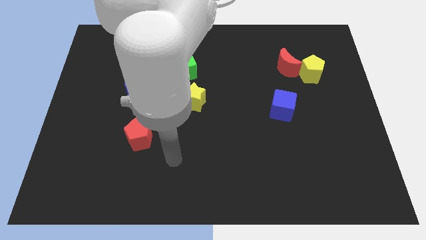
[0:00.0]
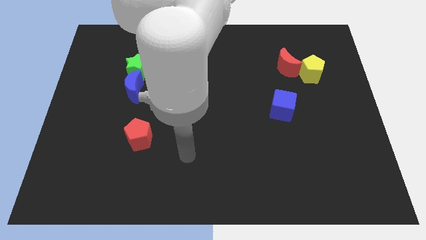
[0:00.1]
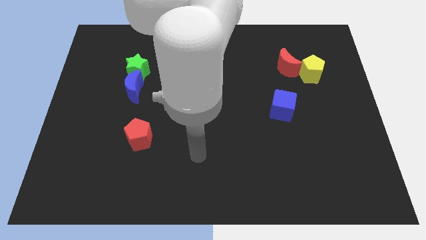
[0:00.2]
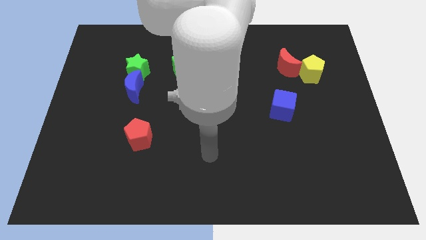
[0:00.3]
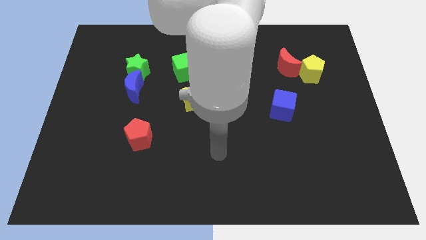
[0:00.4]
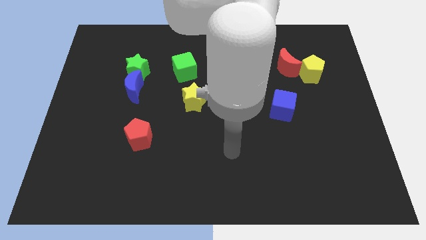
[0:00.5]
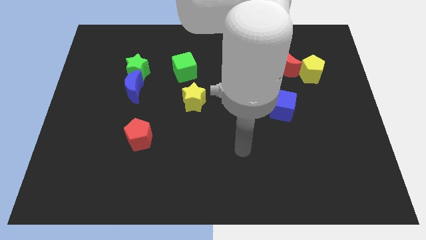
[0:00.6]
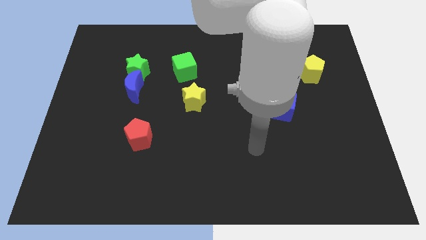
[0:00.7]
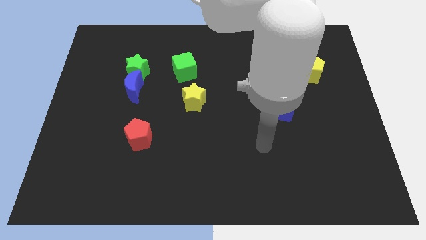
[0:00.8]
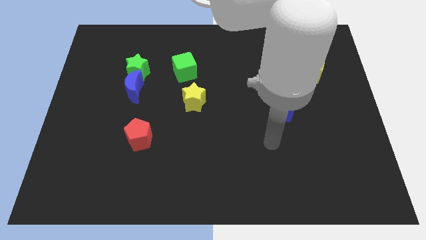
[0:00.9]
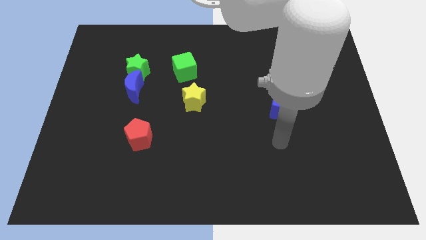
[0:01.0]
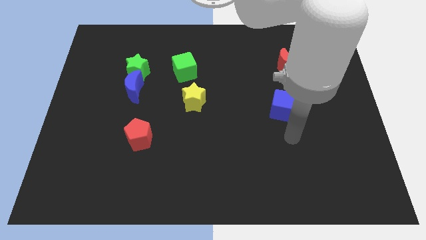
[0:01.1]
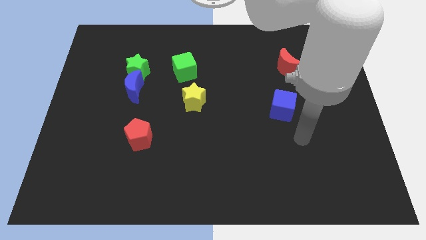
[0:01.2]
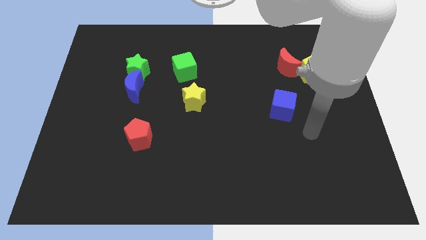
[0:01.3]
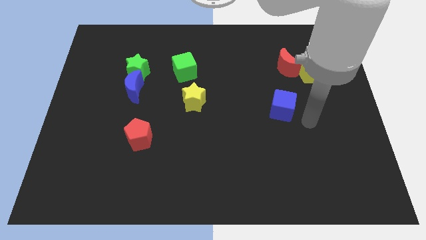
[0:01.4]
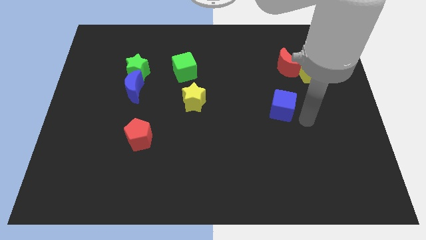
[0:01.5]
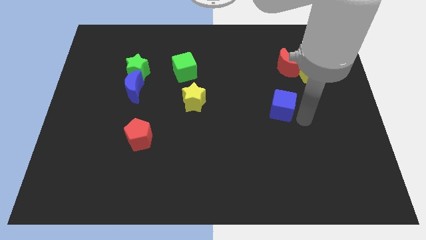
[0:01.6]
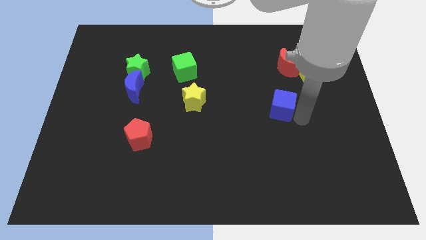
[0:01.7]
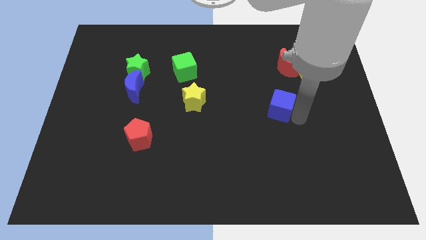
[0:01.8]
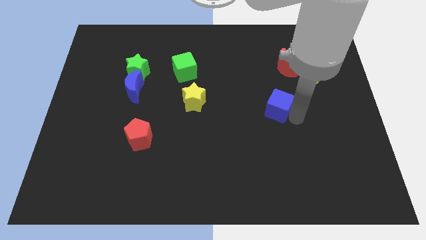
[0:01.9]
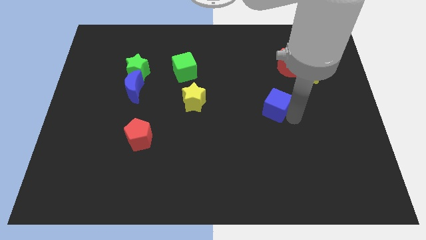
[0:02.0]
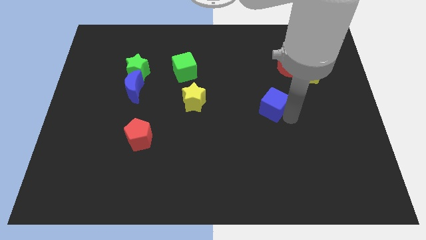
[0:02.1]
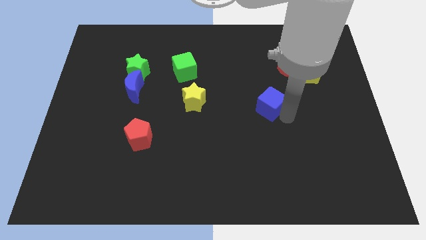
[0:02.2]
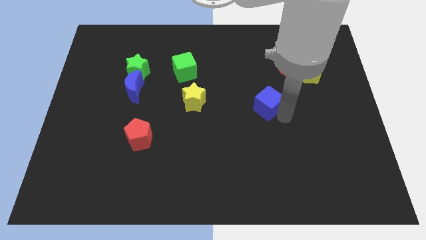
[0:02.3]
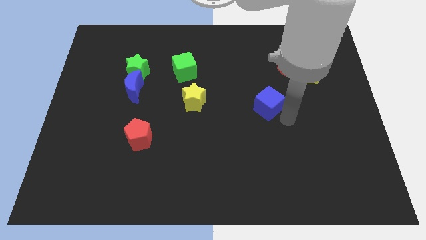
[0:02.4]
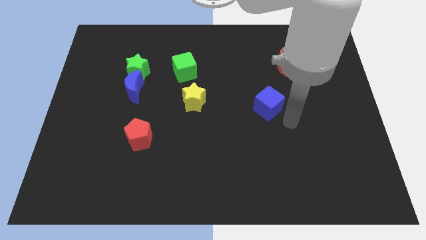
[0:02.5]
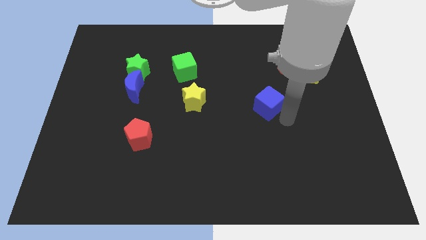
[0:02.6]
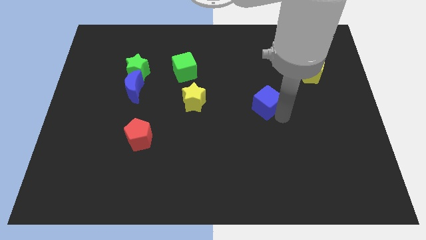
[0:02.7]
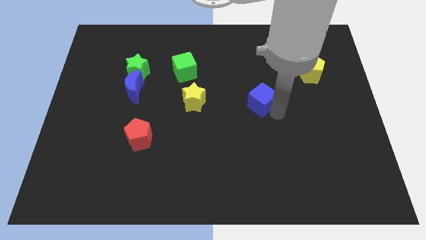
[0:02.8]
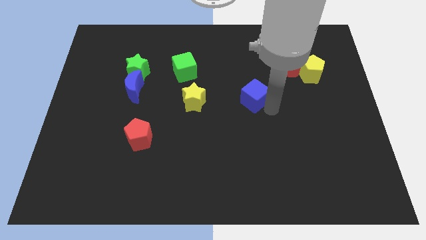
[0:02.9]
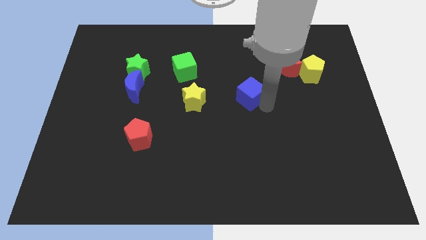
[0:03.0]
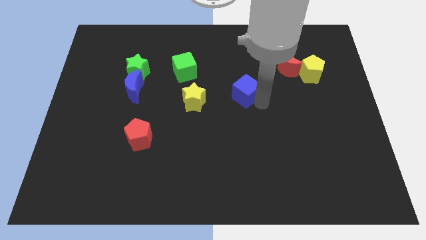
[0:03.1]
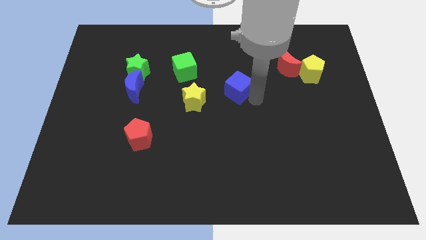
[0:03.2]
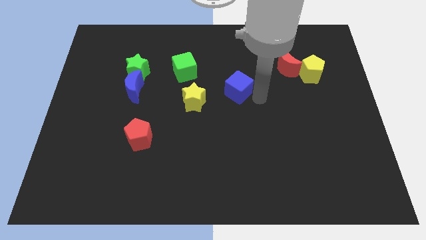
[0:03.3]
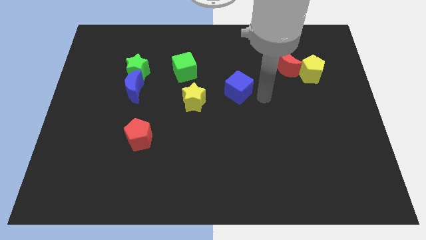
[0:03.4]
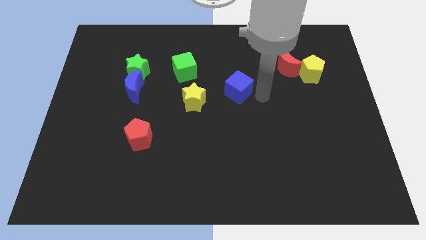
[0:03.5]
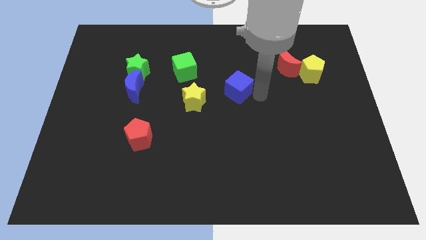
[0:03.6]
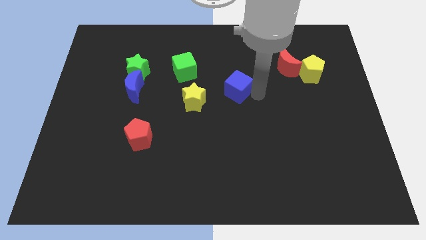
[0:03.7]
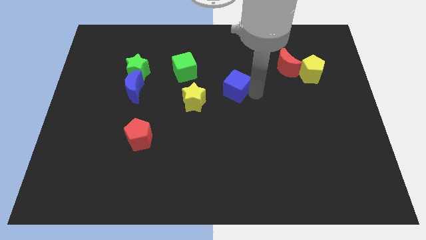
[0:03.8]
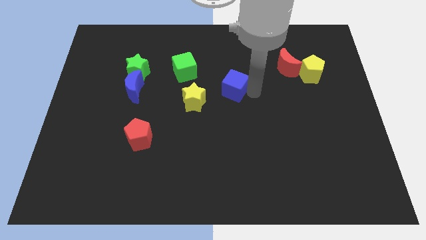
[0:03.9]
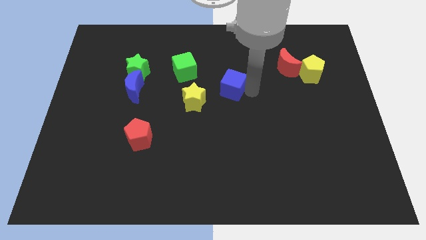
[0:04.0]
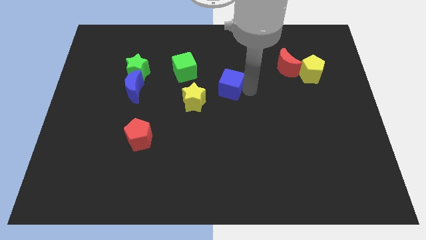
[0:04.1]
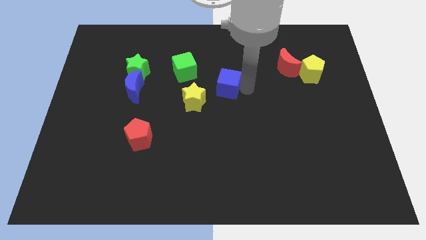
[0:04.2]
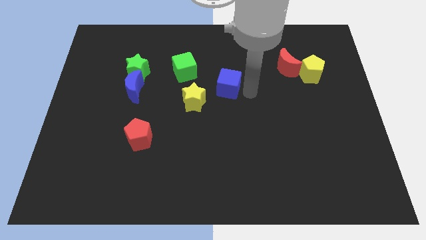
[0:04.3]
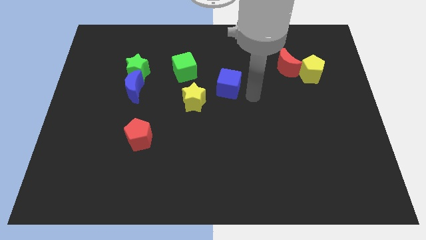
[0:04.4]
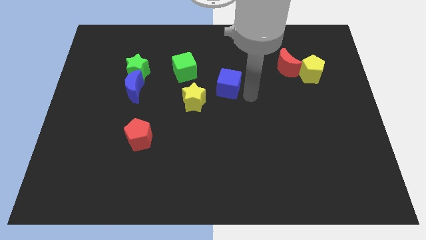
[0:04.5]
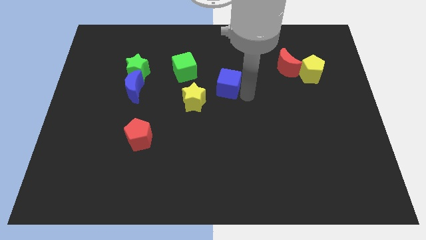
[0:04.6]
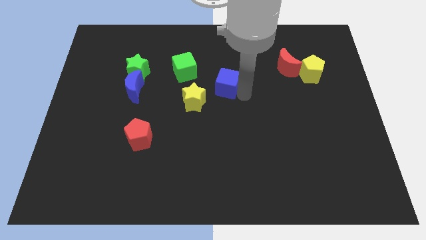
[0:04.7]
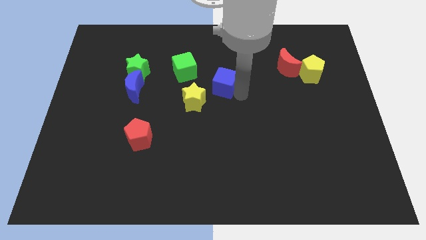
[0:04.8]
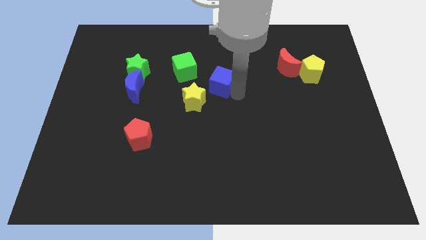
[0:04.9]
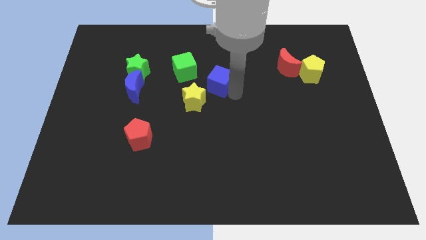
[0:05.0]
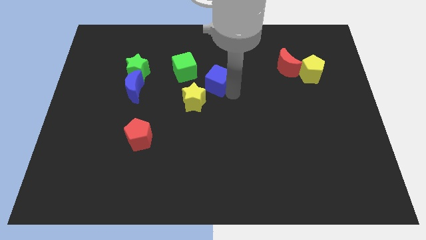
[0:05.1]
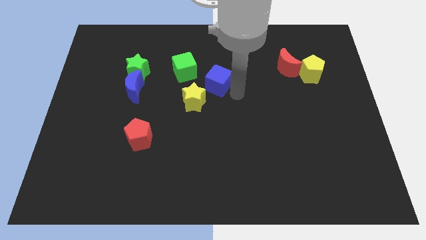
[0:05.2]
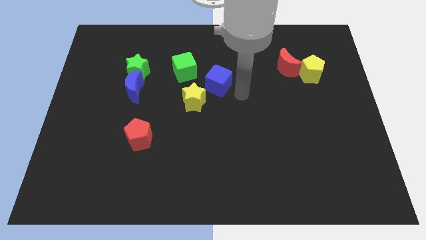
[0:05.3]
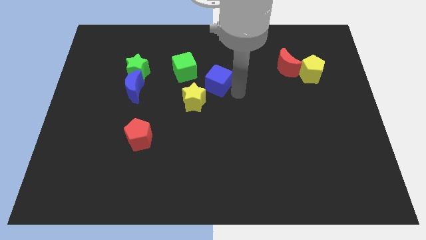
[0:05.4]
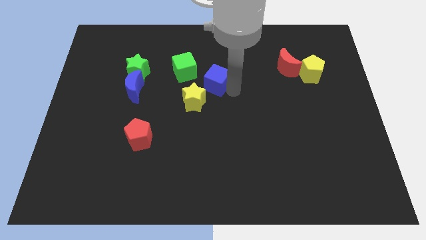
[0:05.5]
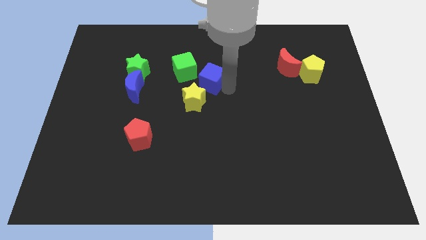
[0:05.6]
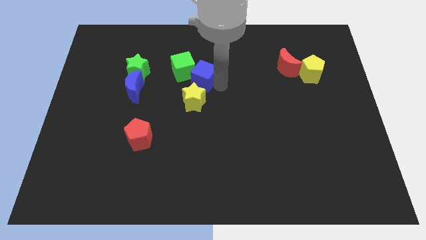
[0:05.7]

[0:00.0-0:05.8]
put the blue cube towards the green cube

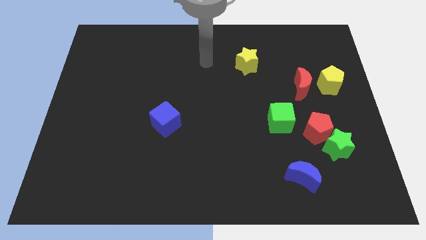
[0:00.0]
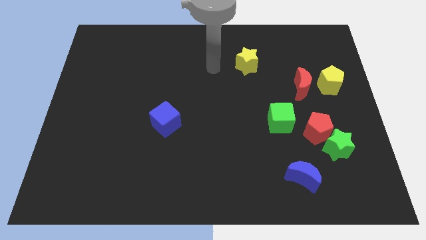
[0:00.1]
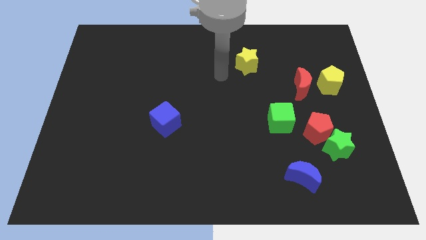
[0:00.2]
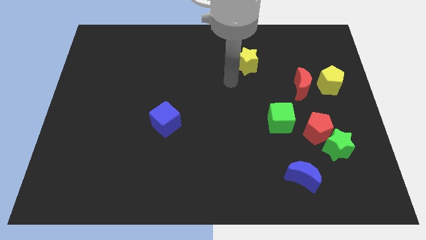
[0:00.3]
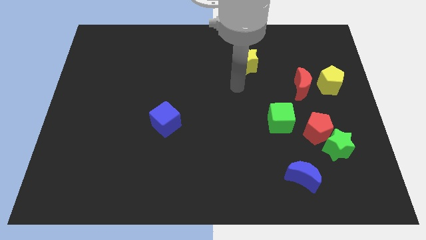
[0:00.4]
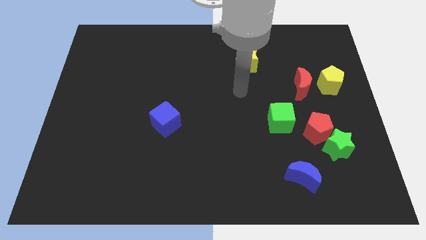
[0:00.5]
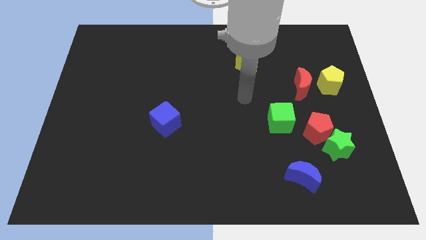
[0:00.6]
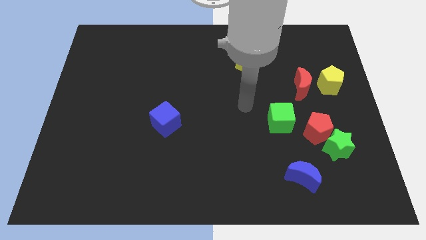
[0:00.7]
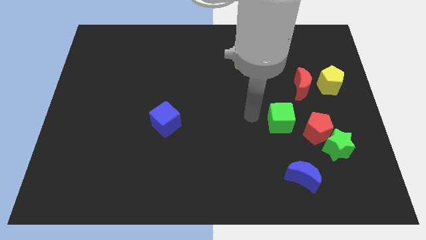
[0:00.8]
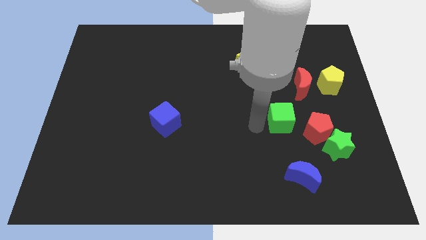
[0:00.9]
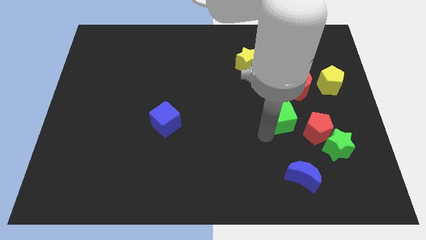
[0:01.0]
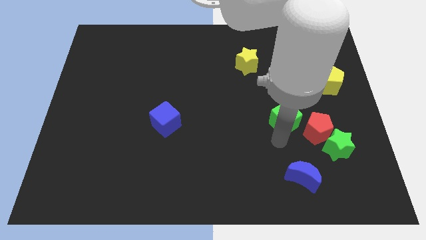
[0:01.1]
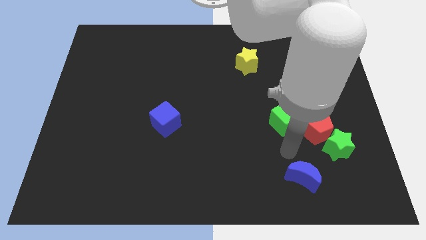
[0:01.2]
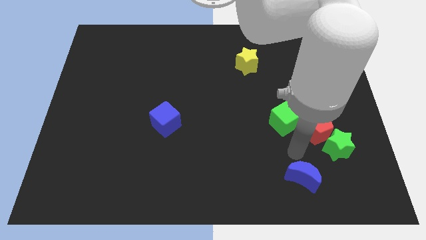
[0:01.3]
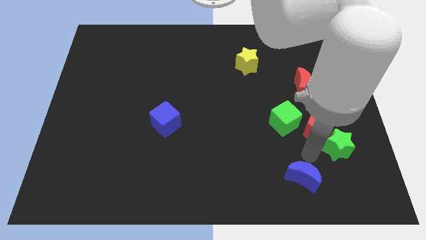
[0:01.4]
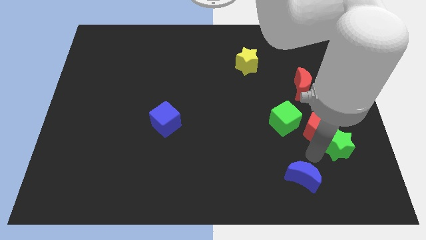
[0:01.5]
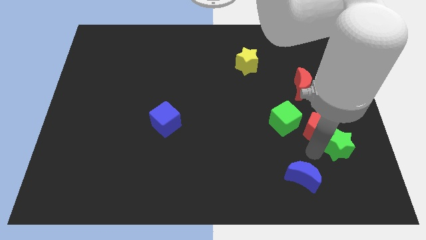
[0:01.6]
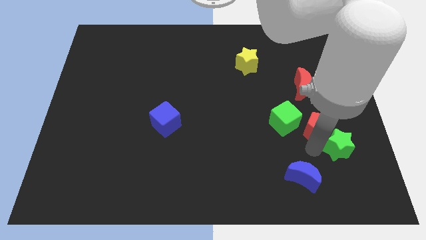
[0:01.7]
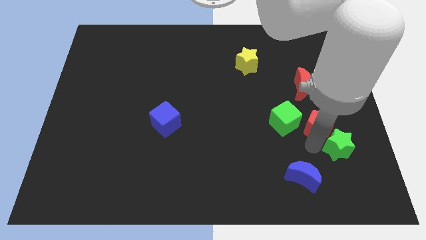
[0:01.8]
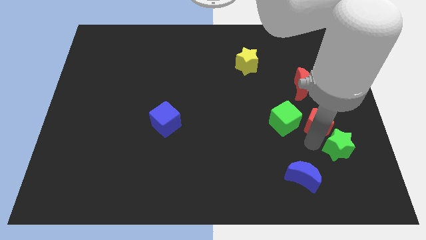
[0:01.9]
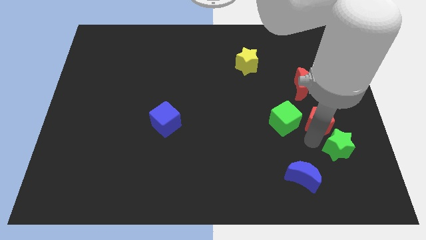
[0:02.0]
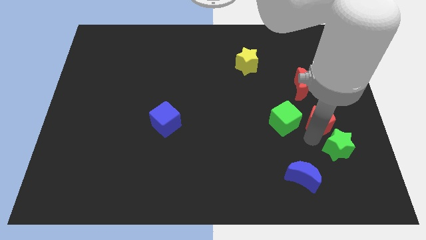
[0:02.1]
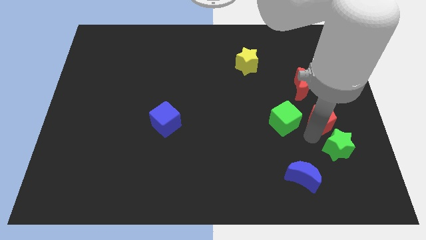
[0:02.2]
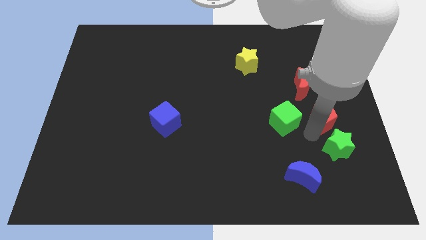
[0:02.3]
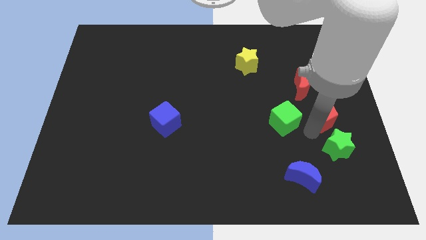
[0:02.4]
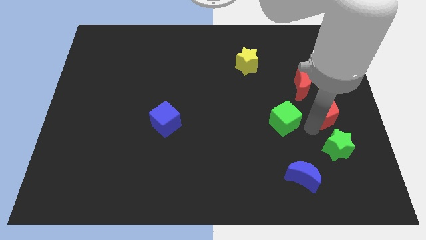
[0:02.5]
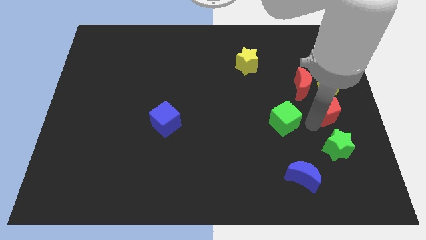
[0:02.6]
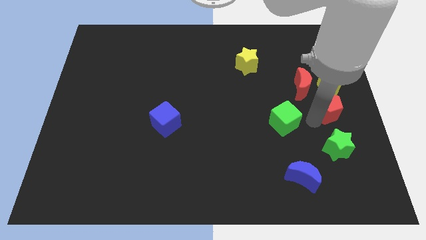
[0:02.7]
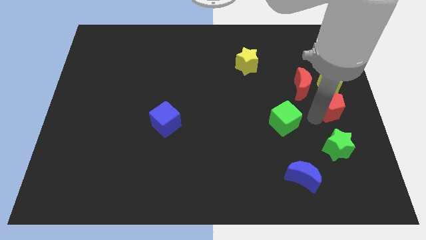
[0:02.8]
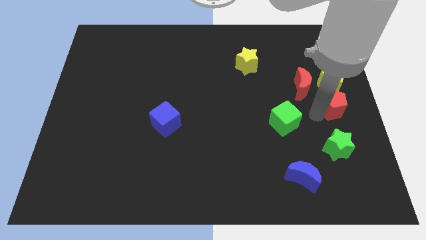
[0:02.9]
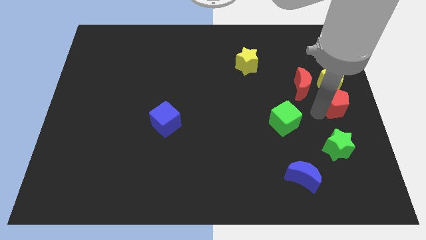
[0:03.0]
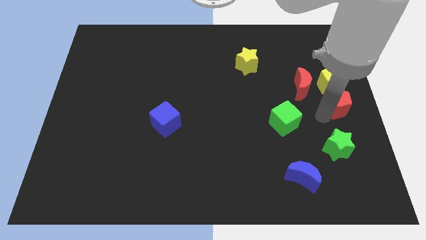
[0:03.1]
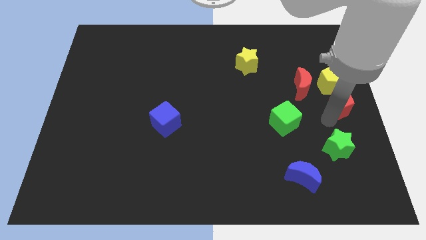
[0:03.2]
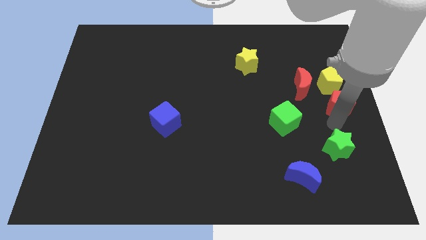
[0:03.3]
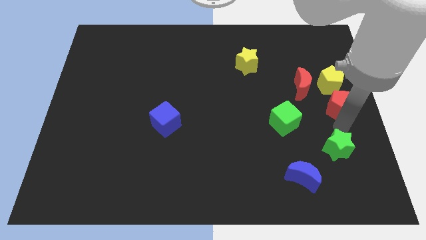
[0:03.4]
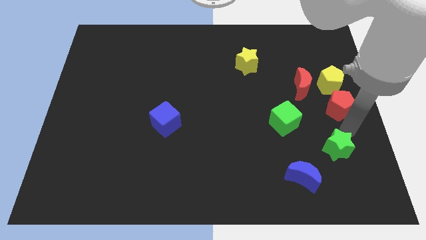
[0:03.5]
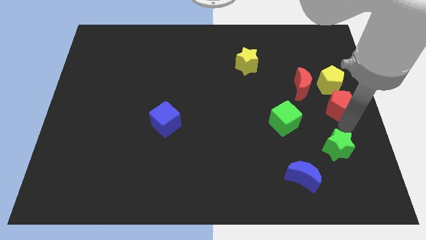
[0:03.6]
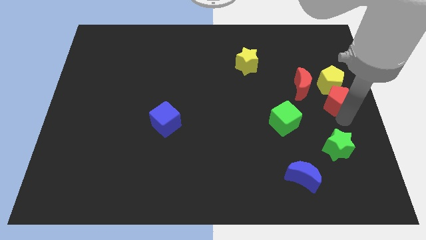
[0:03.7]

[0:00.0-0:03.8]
push the red pentagon next to the yellow pentagon
